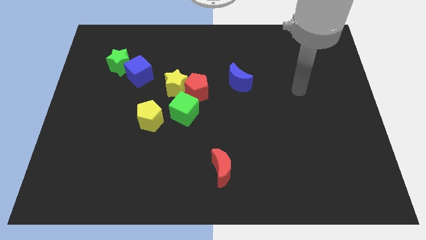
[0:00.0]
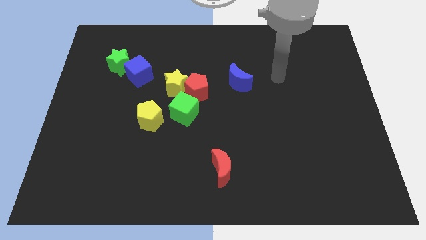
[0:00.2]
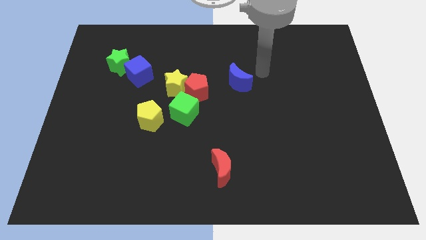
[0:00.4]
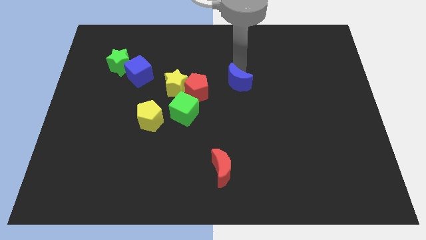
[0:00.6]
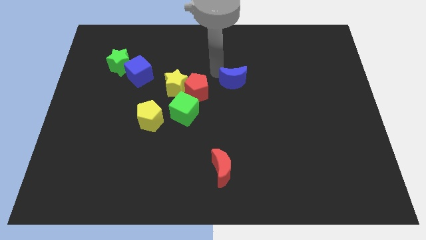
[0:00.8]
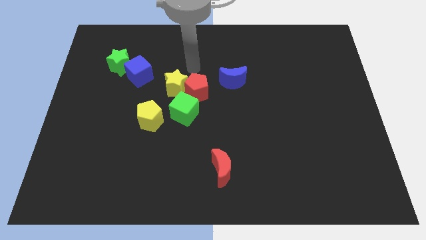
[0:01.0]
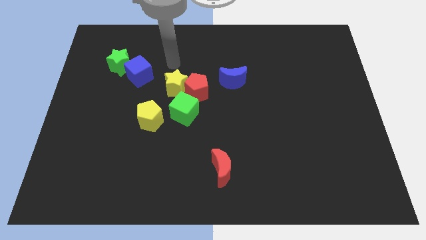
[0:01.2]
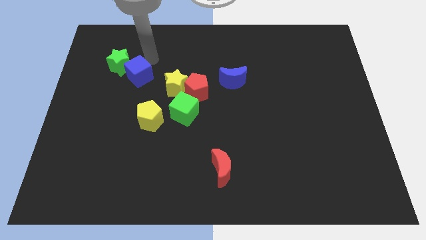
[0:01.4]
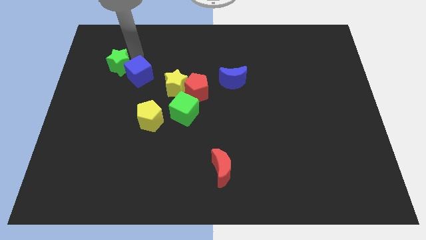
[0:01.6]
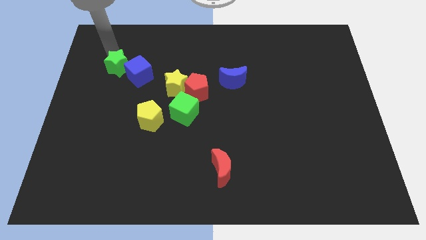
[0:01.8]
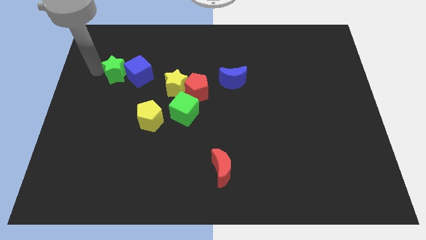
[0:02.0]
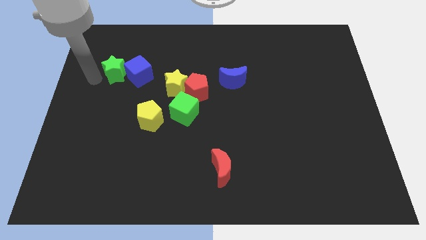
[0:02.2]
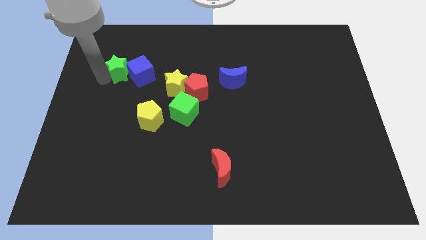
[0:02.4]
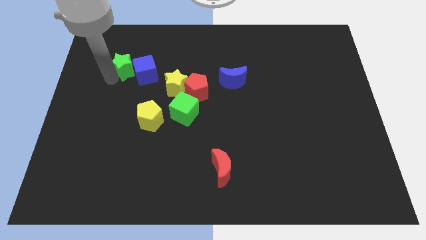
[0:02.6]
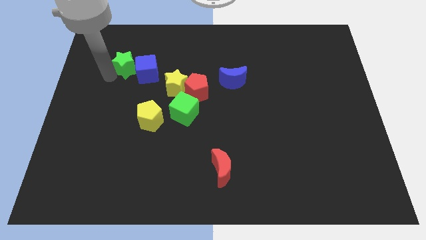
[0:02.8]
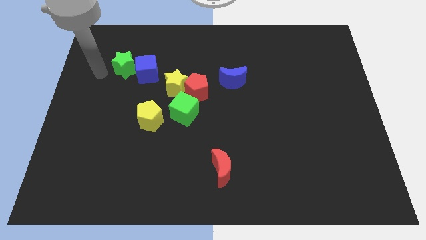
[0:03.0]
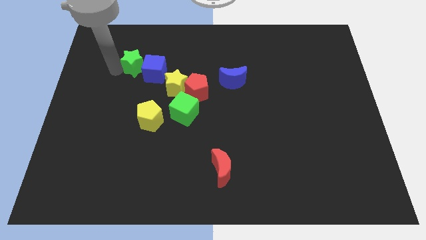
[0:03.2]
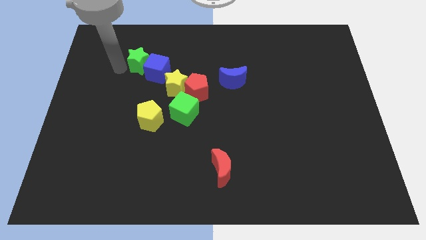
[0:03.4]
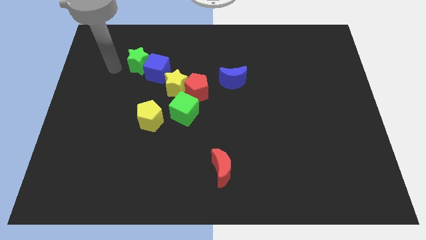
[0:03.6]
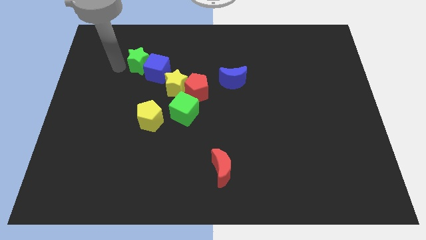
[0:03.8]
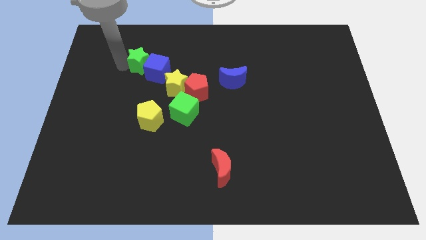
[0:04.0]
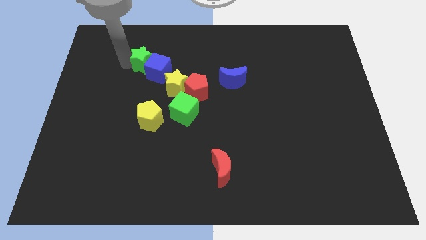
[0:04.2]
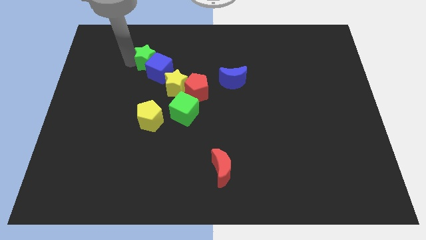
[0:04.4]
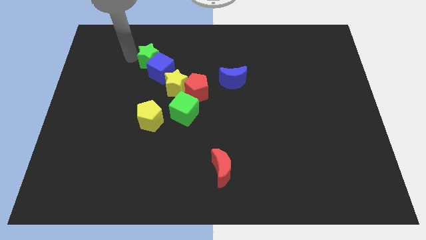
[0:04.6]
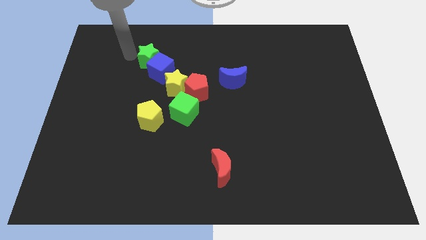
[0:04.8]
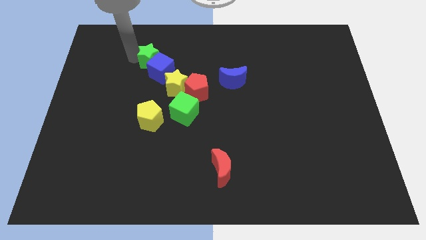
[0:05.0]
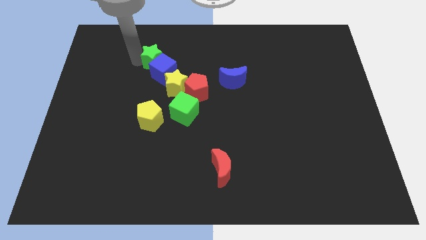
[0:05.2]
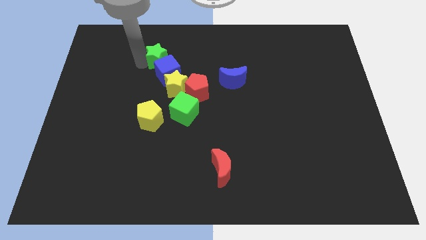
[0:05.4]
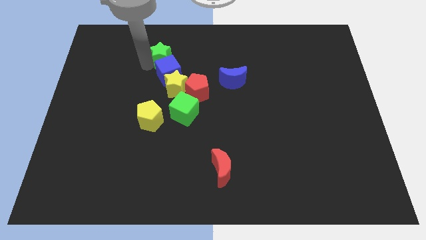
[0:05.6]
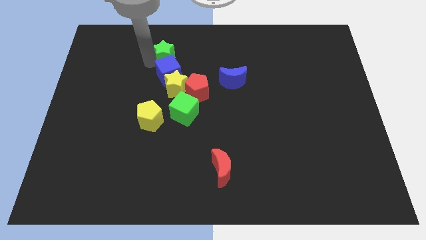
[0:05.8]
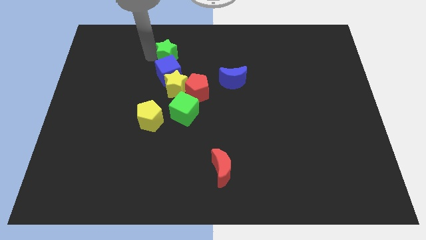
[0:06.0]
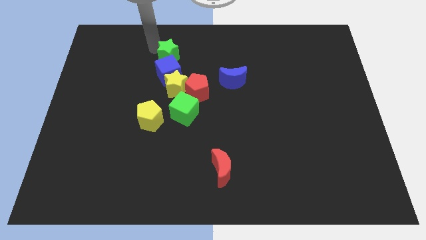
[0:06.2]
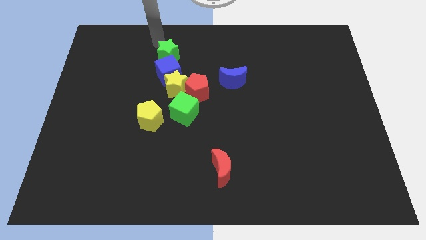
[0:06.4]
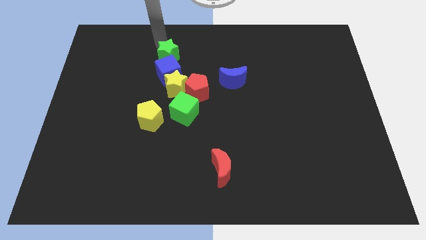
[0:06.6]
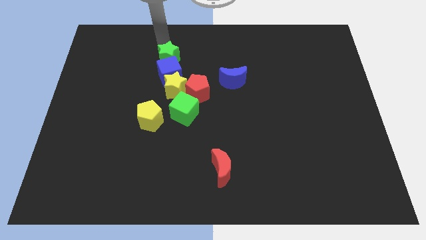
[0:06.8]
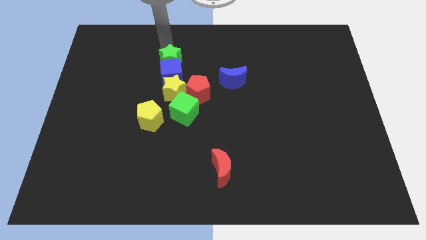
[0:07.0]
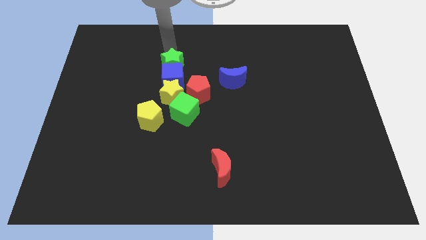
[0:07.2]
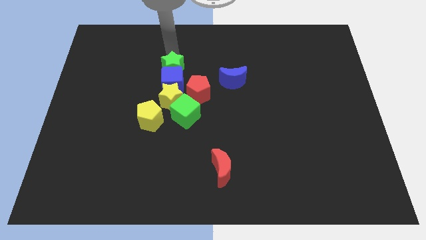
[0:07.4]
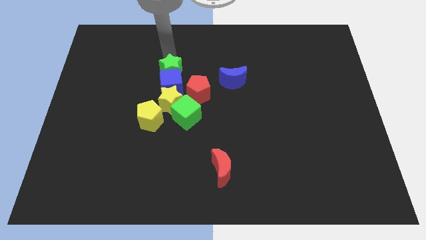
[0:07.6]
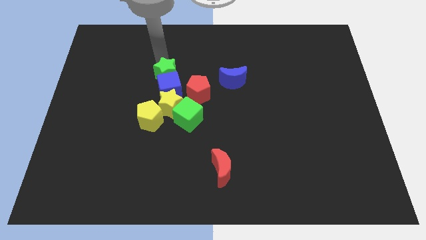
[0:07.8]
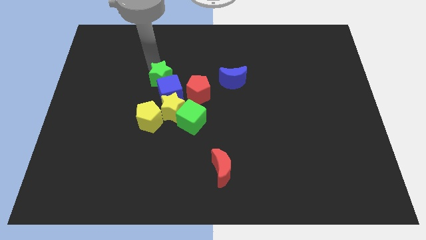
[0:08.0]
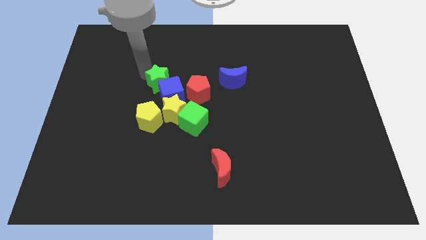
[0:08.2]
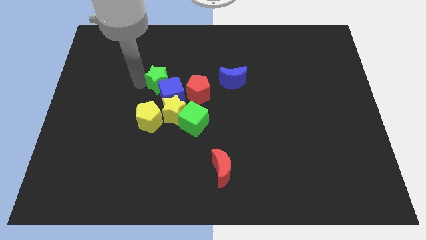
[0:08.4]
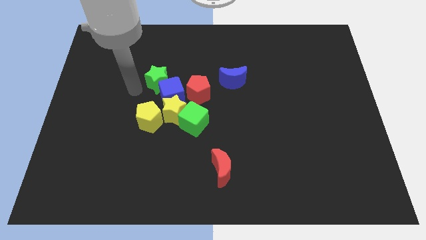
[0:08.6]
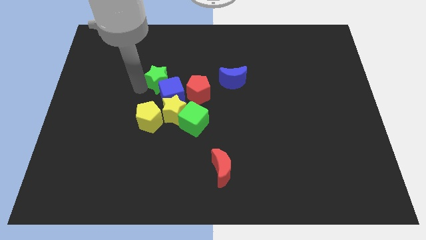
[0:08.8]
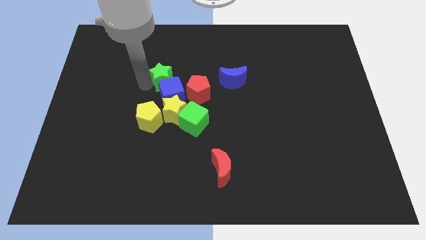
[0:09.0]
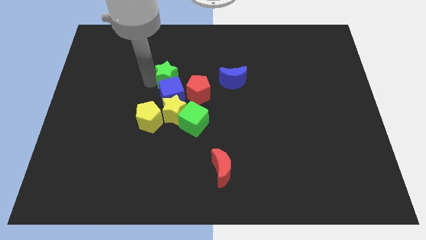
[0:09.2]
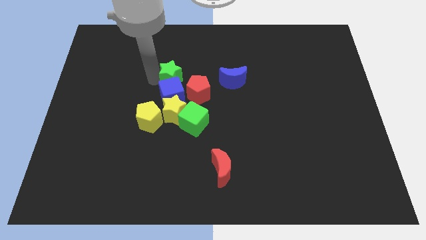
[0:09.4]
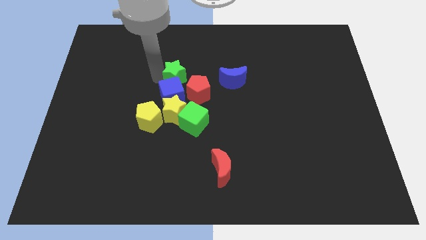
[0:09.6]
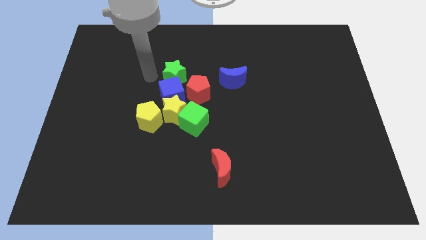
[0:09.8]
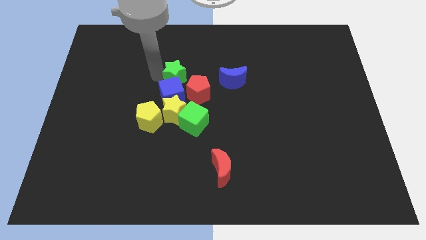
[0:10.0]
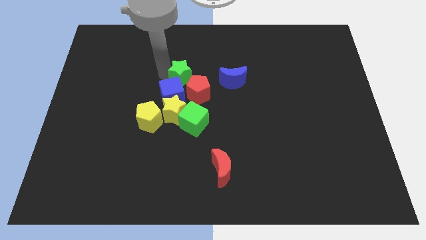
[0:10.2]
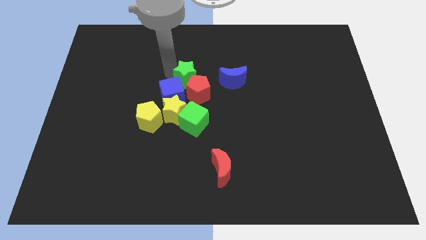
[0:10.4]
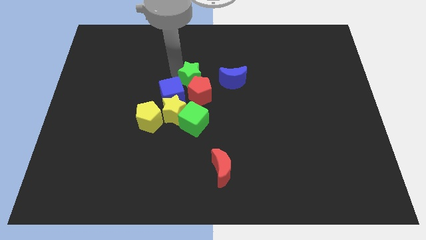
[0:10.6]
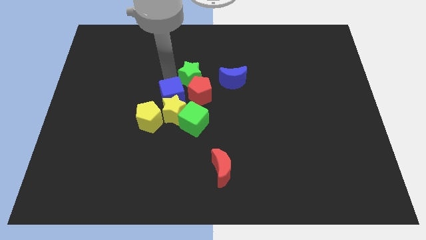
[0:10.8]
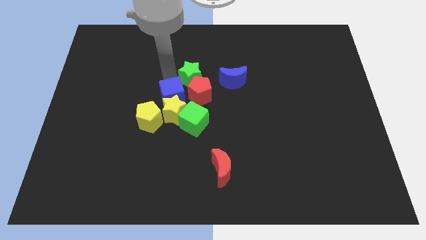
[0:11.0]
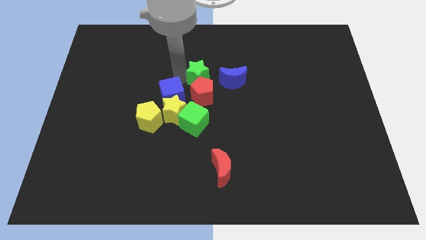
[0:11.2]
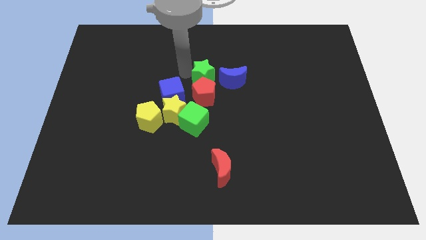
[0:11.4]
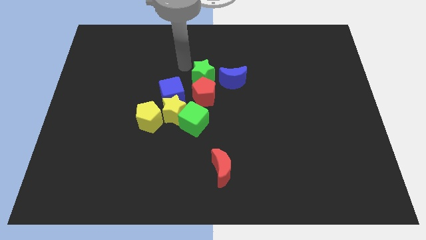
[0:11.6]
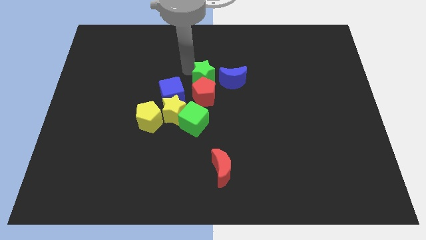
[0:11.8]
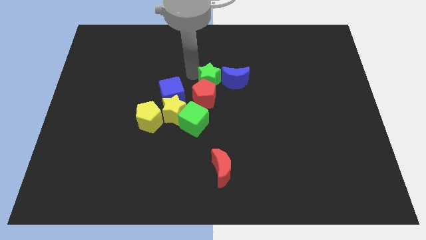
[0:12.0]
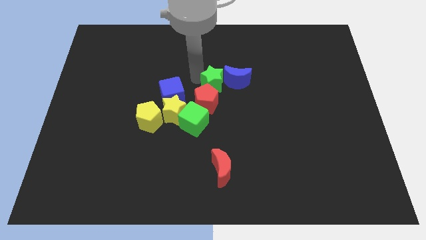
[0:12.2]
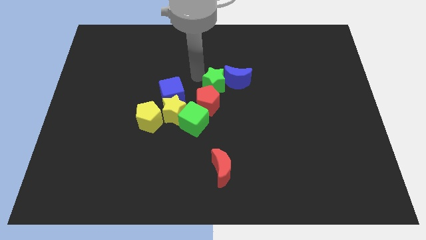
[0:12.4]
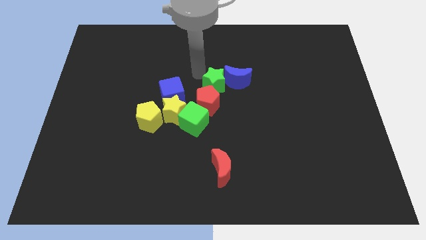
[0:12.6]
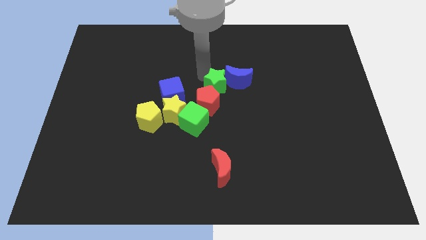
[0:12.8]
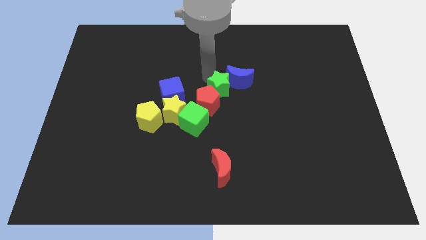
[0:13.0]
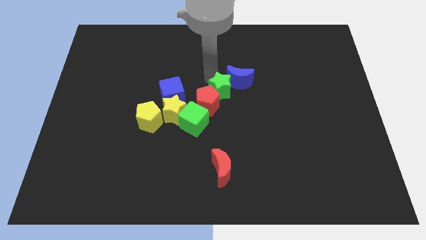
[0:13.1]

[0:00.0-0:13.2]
push the green star to the right of the red pentagon

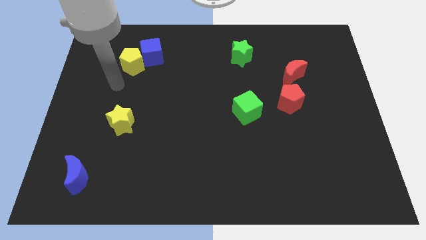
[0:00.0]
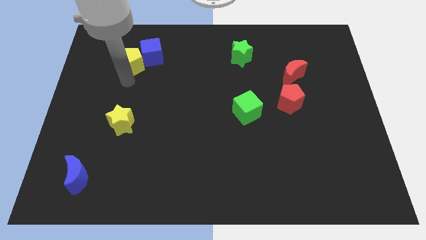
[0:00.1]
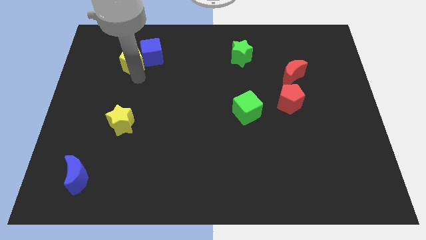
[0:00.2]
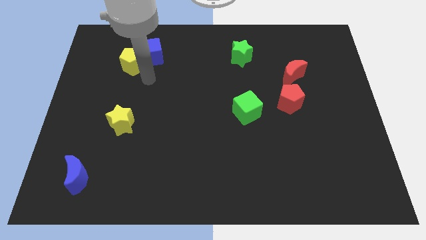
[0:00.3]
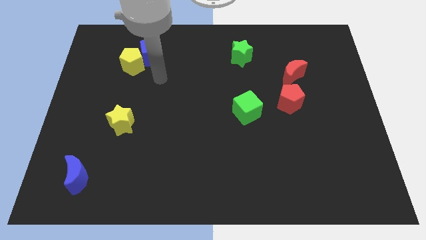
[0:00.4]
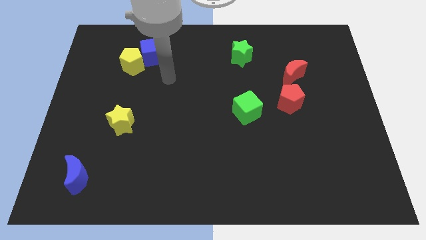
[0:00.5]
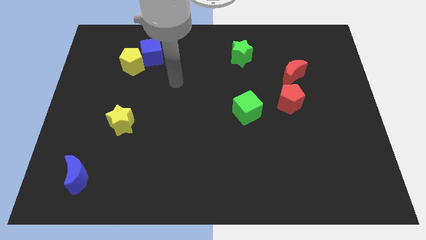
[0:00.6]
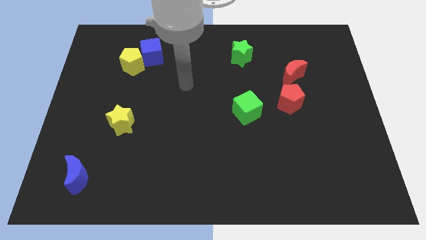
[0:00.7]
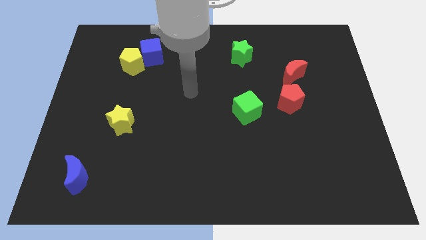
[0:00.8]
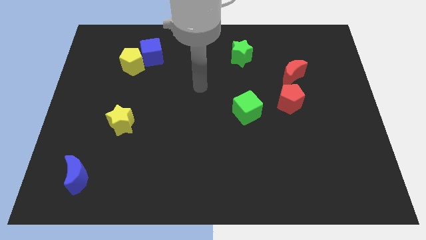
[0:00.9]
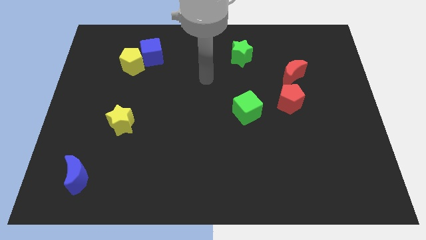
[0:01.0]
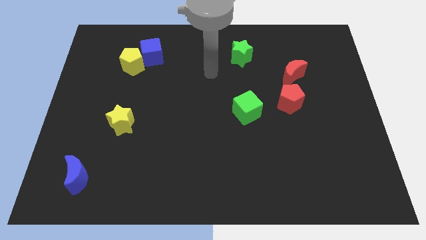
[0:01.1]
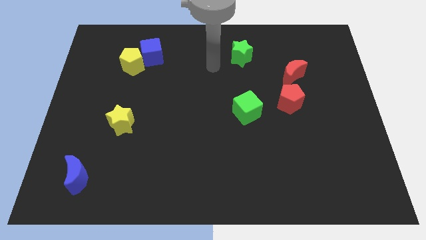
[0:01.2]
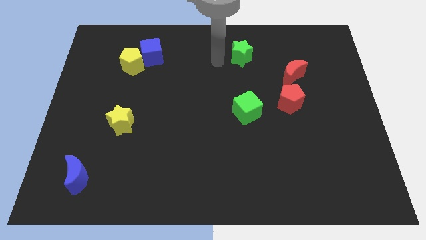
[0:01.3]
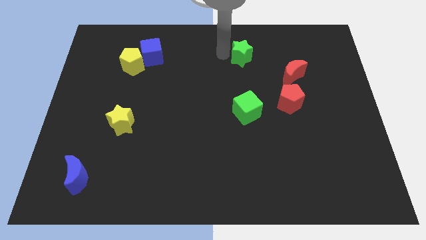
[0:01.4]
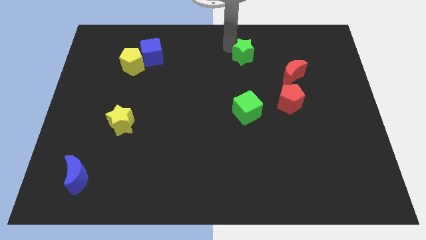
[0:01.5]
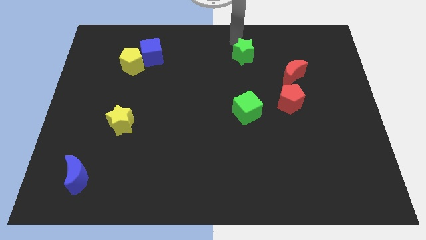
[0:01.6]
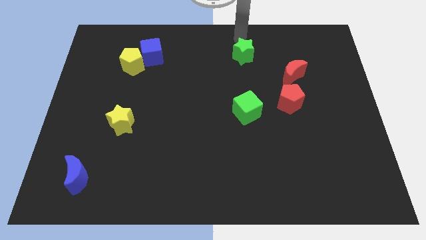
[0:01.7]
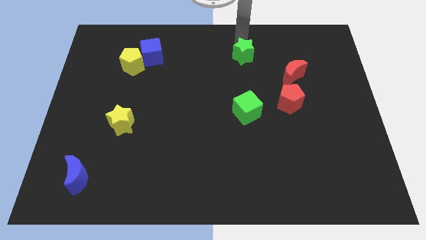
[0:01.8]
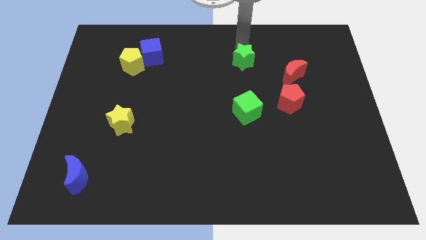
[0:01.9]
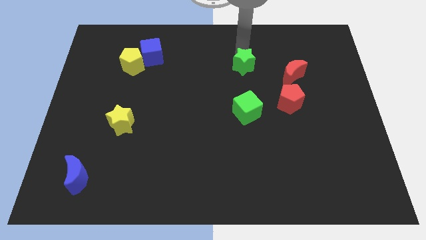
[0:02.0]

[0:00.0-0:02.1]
put the green star above the green cube
